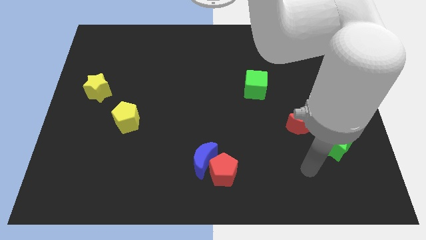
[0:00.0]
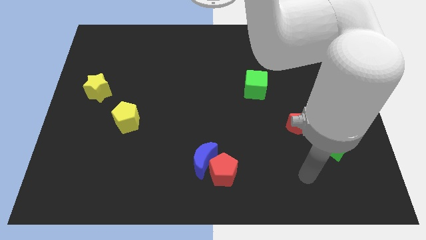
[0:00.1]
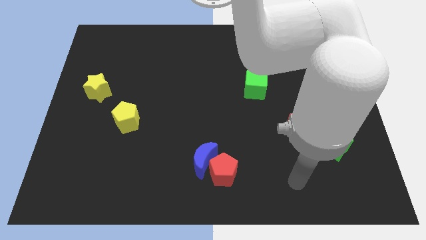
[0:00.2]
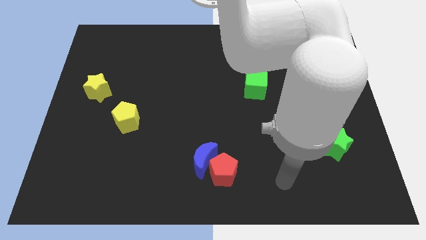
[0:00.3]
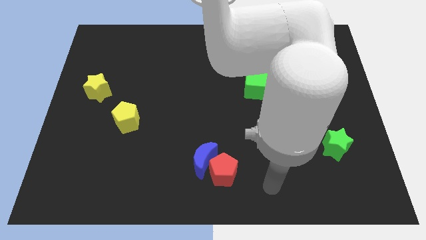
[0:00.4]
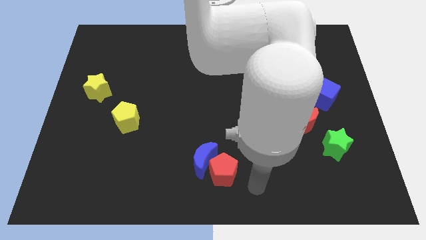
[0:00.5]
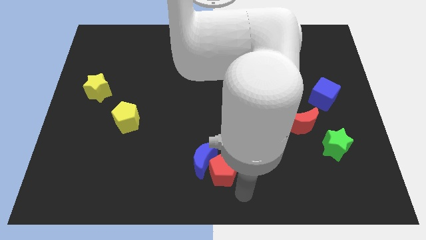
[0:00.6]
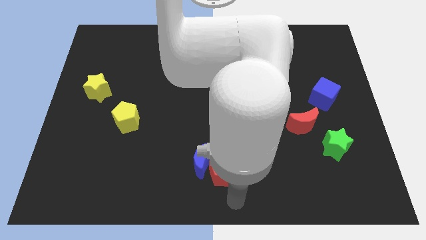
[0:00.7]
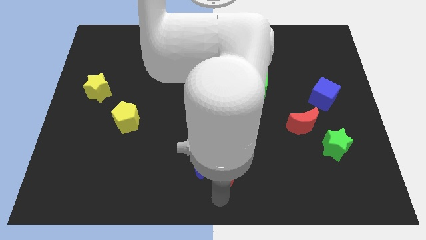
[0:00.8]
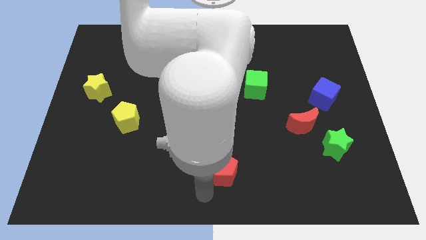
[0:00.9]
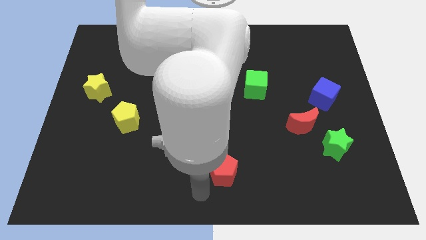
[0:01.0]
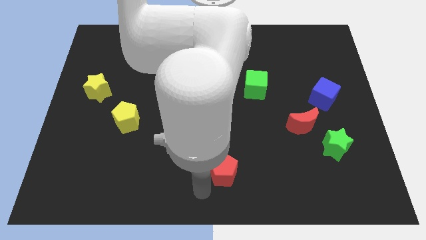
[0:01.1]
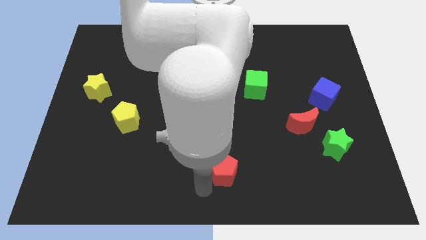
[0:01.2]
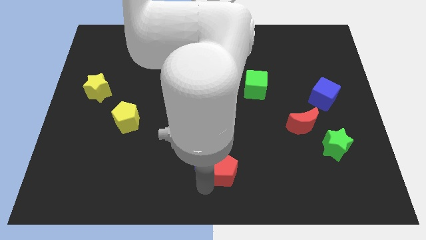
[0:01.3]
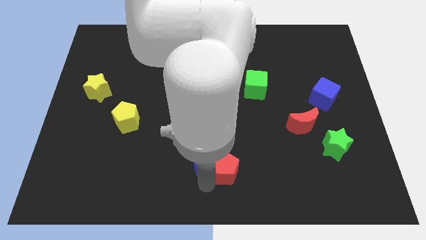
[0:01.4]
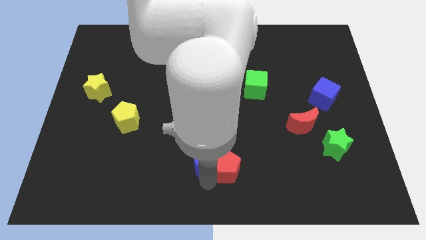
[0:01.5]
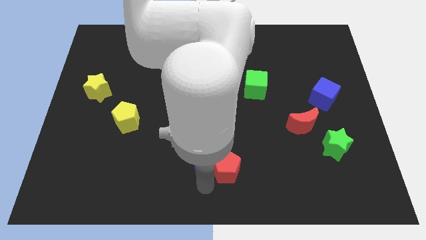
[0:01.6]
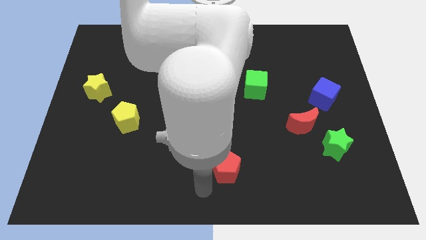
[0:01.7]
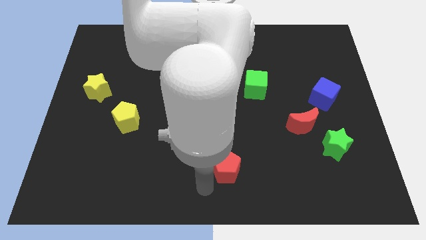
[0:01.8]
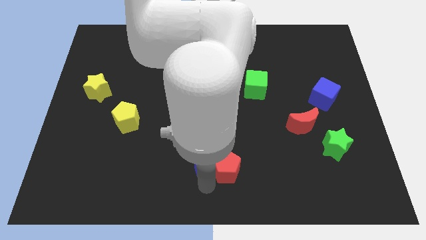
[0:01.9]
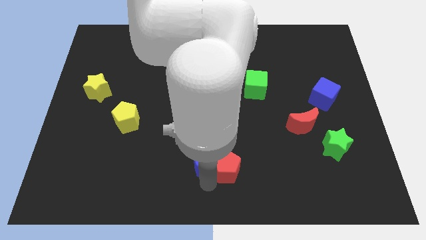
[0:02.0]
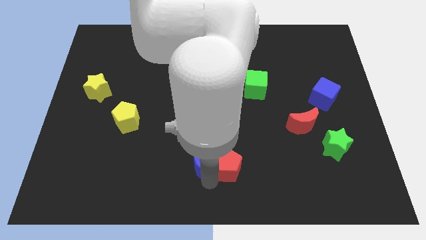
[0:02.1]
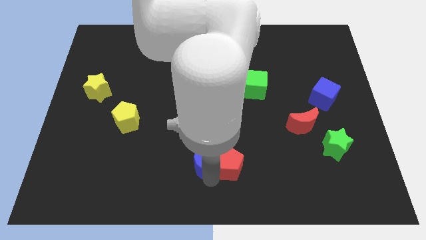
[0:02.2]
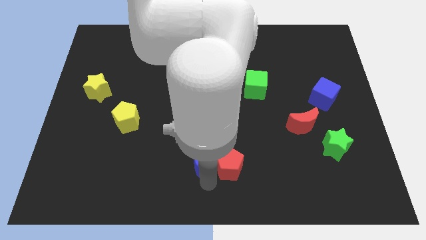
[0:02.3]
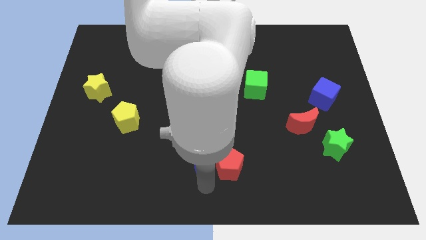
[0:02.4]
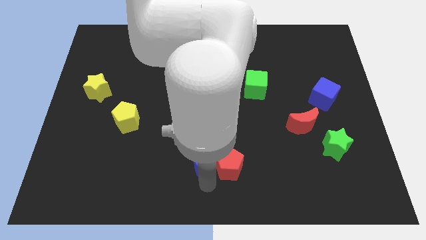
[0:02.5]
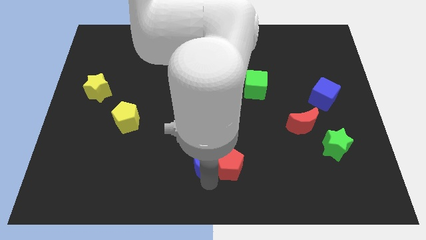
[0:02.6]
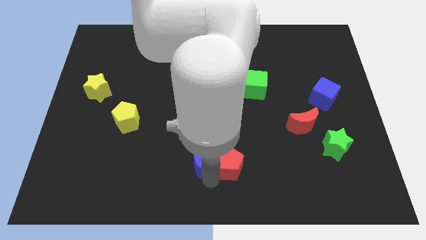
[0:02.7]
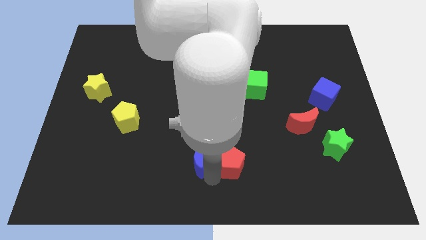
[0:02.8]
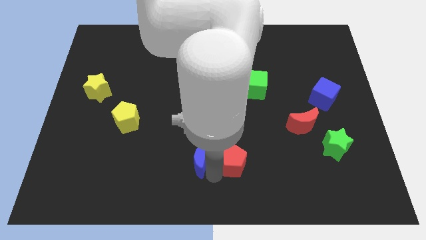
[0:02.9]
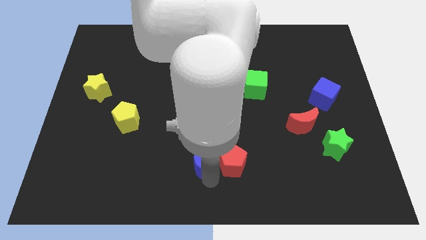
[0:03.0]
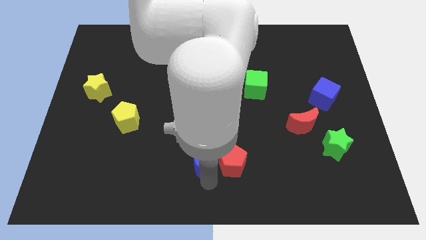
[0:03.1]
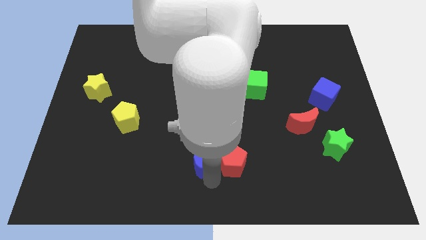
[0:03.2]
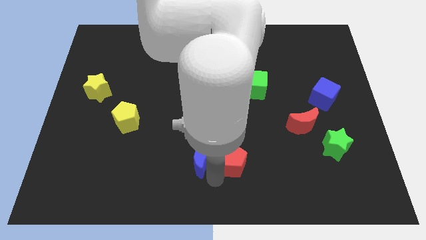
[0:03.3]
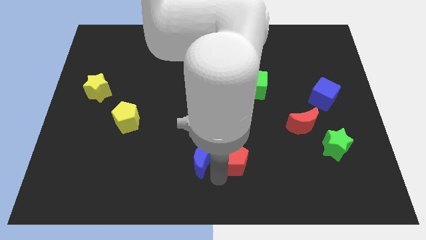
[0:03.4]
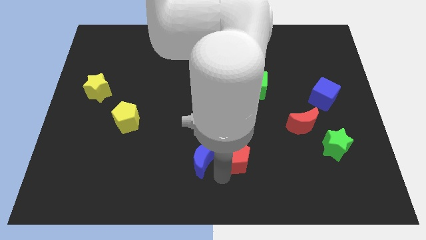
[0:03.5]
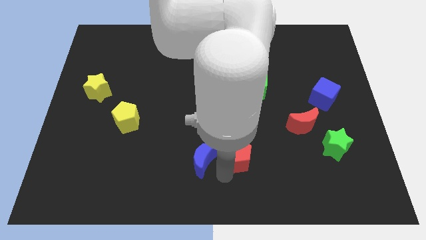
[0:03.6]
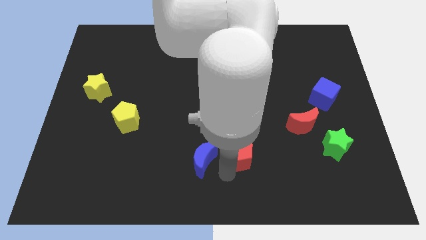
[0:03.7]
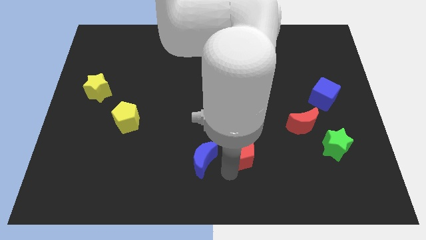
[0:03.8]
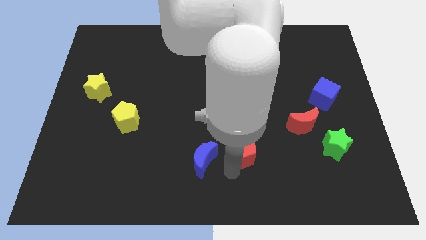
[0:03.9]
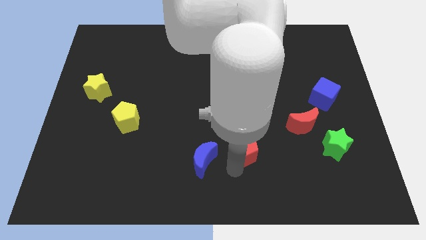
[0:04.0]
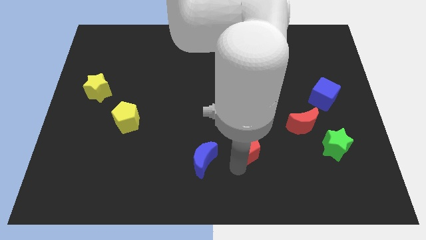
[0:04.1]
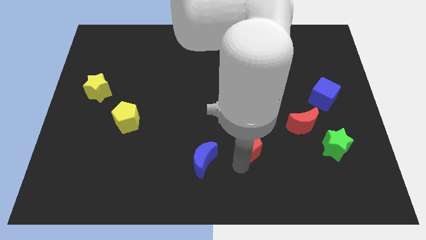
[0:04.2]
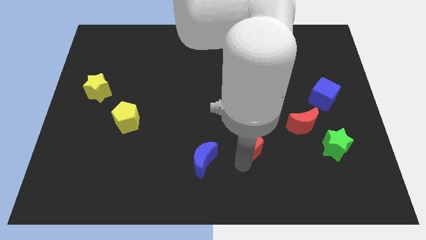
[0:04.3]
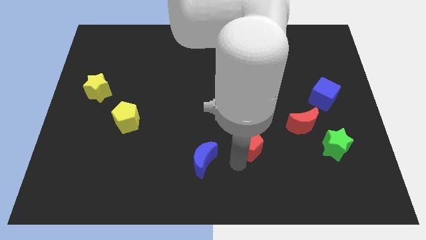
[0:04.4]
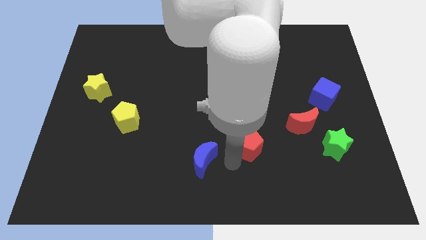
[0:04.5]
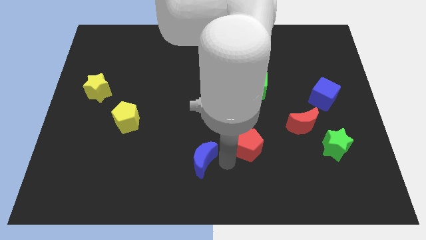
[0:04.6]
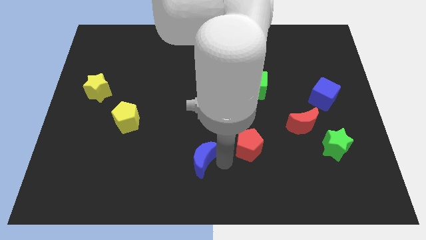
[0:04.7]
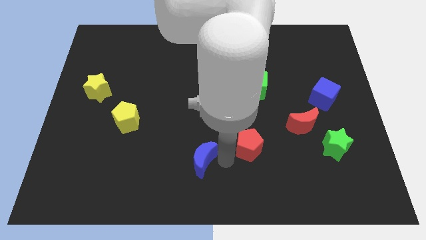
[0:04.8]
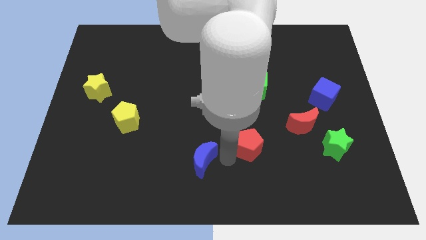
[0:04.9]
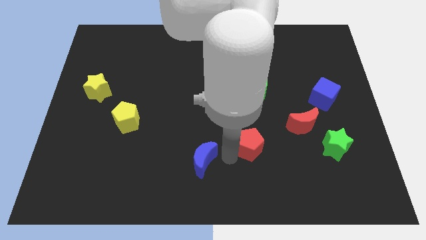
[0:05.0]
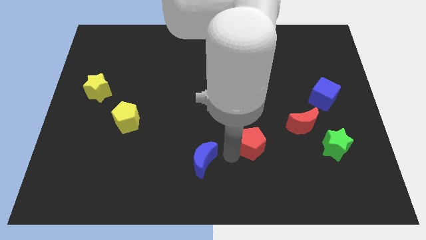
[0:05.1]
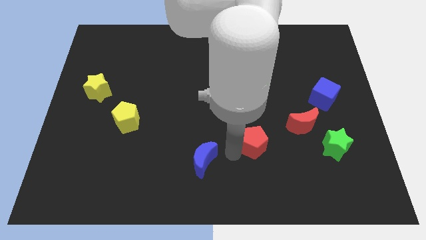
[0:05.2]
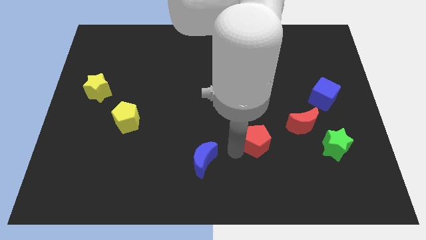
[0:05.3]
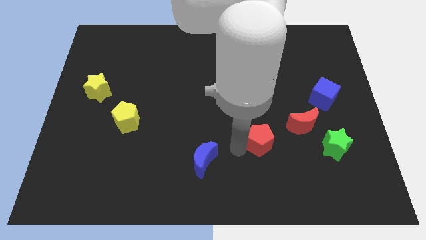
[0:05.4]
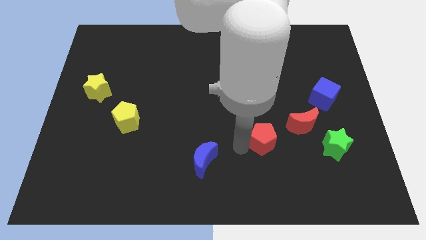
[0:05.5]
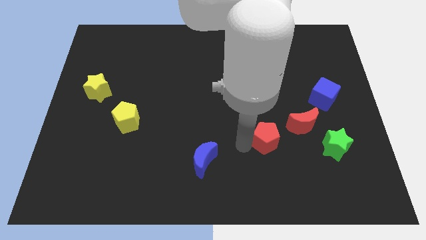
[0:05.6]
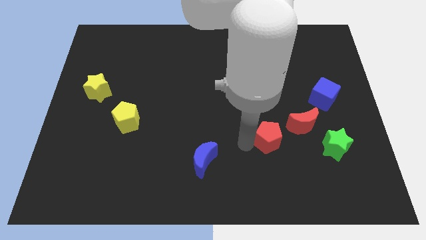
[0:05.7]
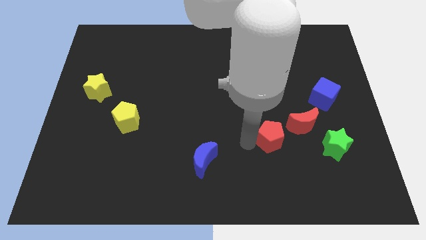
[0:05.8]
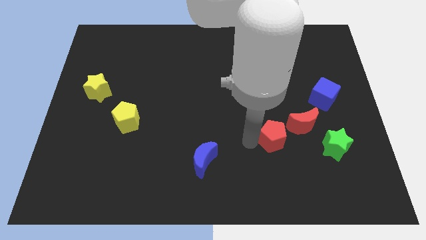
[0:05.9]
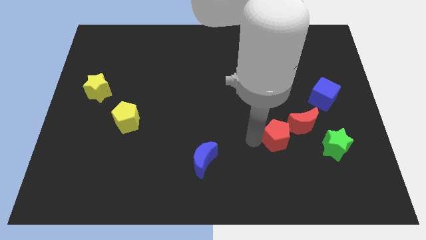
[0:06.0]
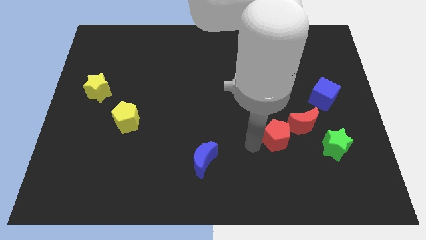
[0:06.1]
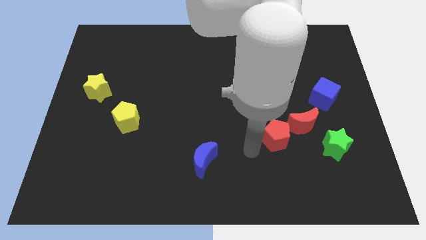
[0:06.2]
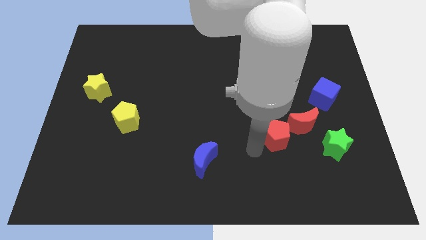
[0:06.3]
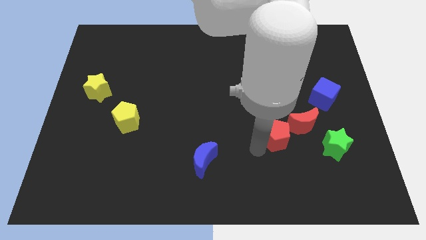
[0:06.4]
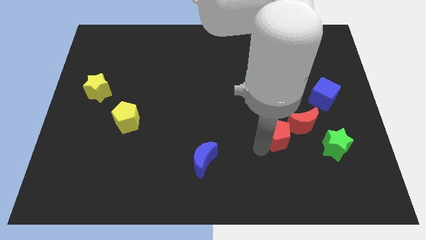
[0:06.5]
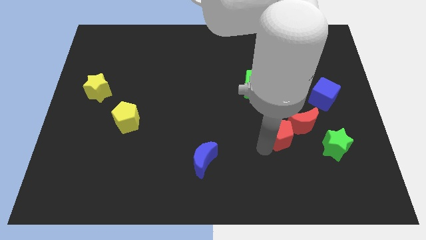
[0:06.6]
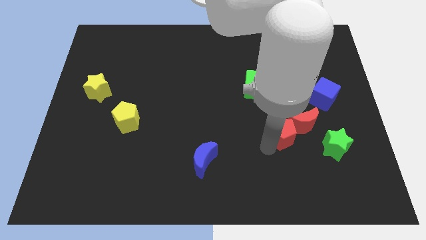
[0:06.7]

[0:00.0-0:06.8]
move the red pentagon close to the red moon

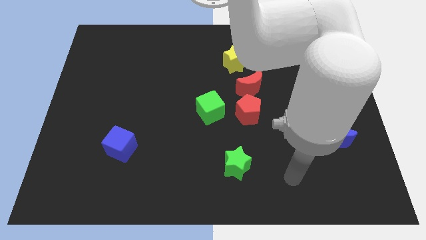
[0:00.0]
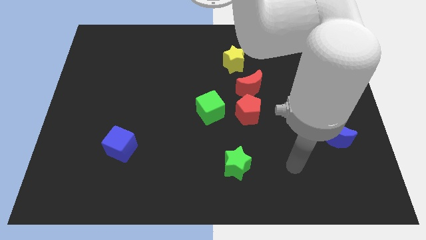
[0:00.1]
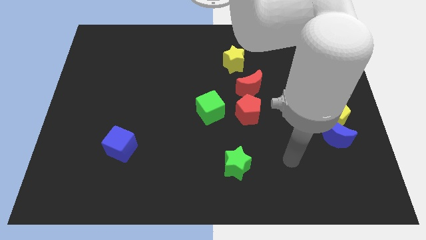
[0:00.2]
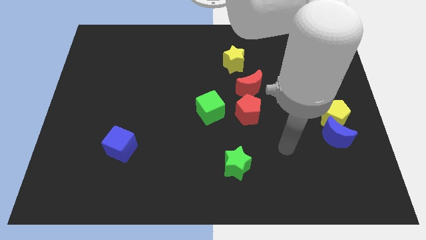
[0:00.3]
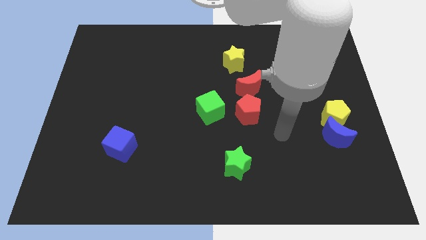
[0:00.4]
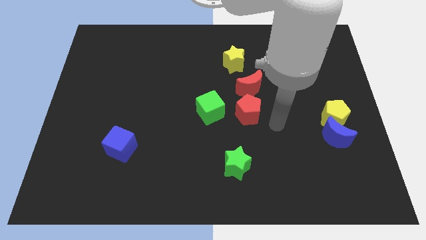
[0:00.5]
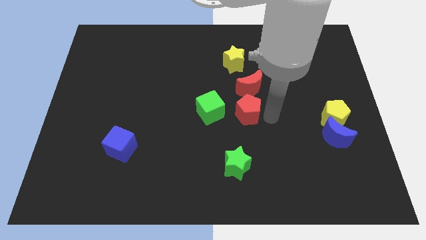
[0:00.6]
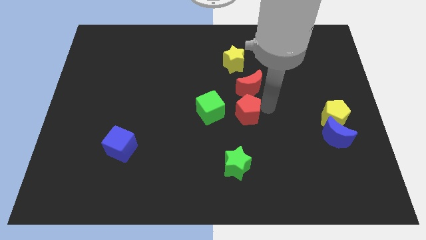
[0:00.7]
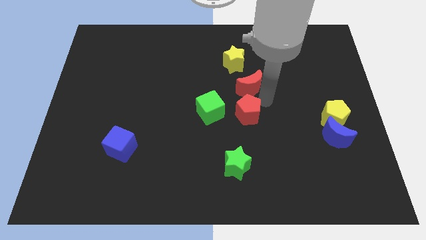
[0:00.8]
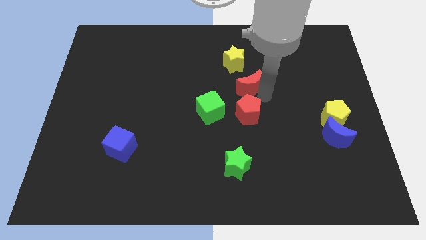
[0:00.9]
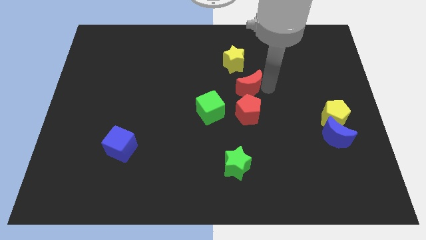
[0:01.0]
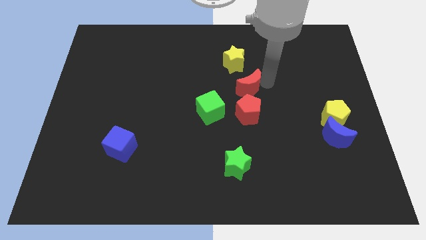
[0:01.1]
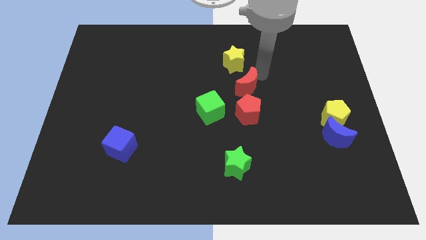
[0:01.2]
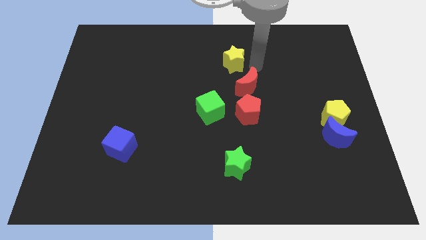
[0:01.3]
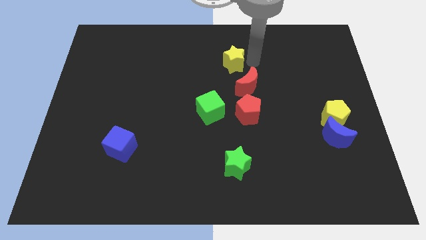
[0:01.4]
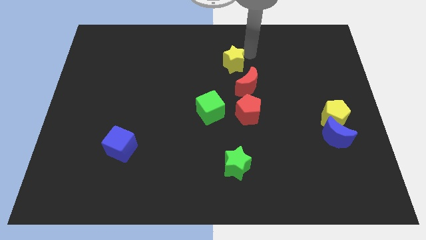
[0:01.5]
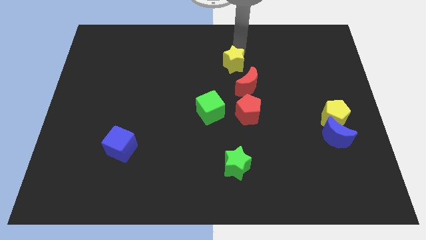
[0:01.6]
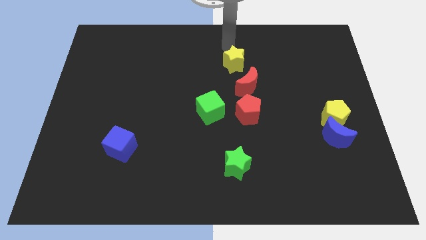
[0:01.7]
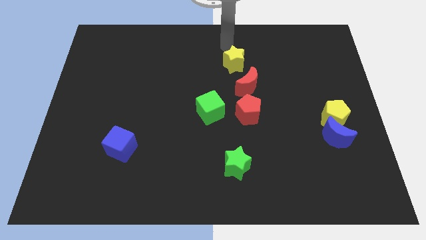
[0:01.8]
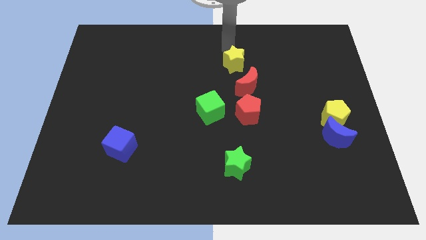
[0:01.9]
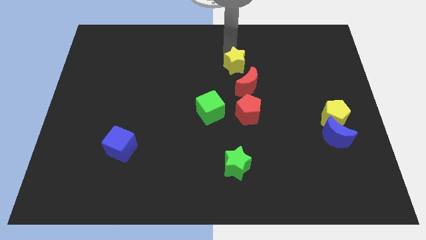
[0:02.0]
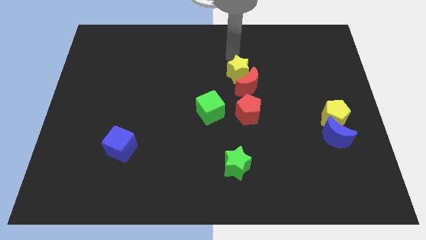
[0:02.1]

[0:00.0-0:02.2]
slide the yellow star next to the red moon
